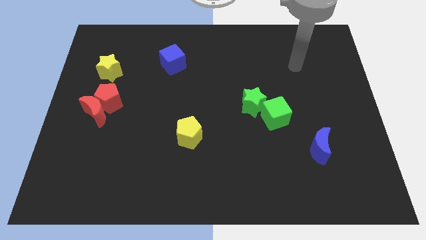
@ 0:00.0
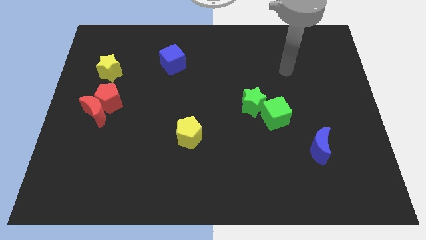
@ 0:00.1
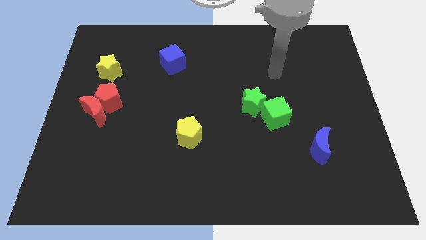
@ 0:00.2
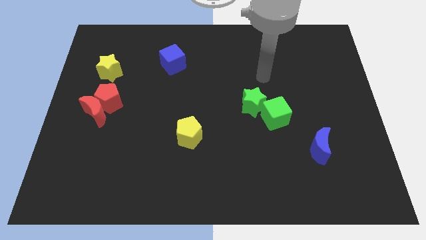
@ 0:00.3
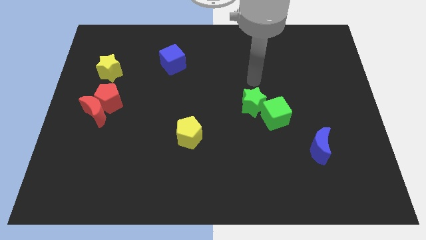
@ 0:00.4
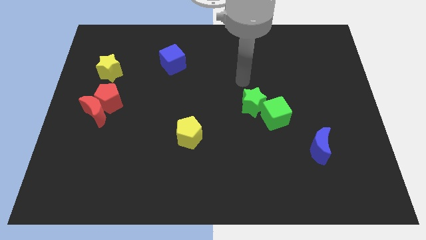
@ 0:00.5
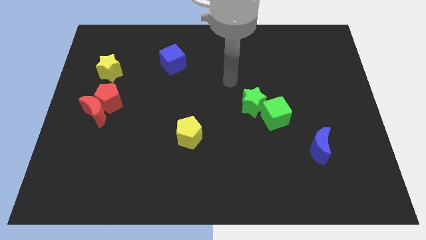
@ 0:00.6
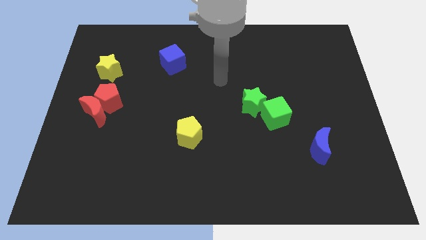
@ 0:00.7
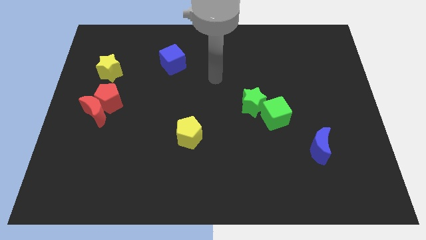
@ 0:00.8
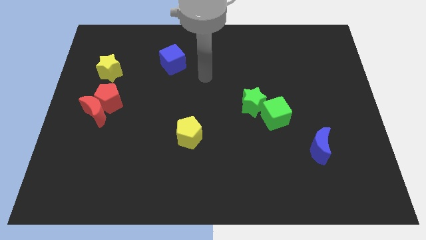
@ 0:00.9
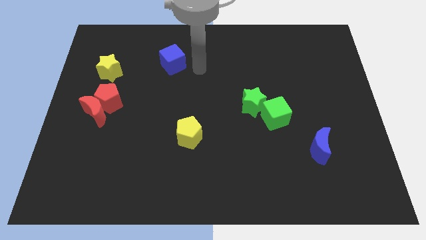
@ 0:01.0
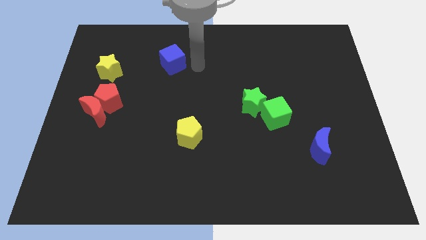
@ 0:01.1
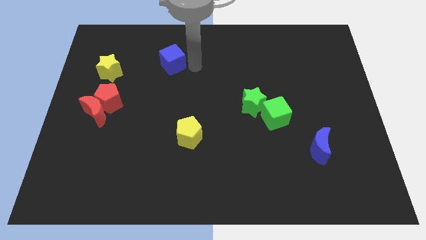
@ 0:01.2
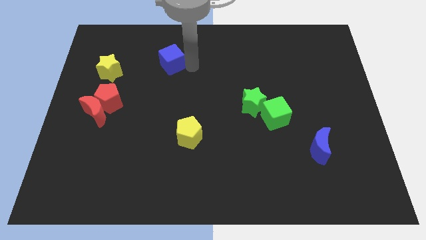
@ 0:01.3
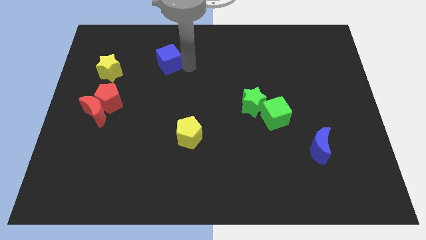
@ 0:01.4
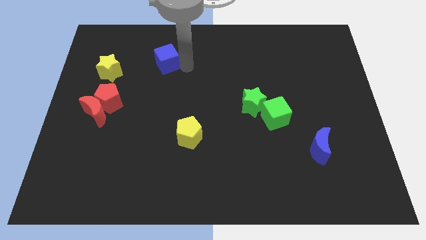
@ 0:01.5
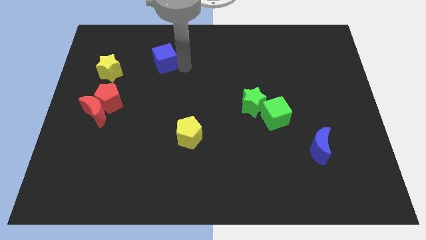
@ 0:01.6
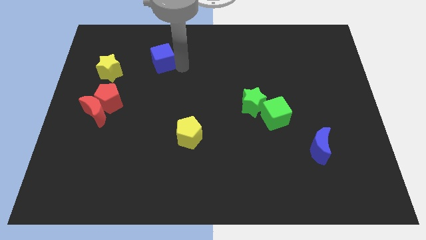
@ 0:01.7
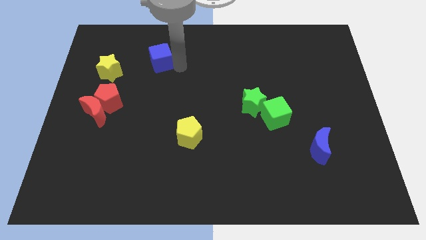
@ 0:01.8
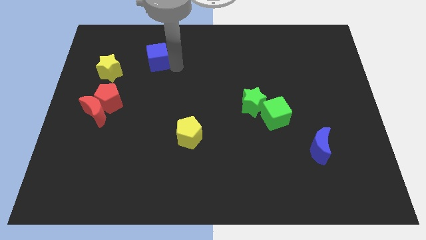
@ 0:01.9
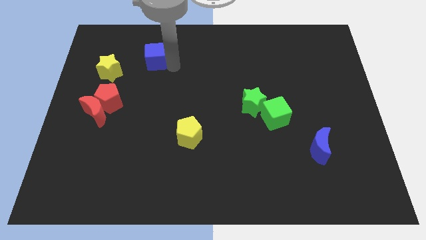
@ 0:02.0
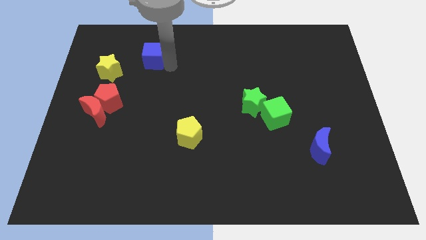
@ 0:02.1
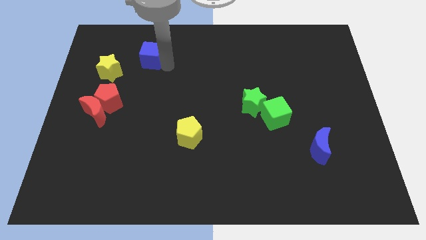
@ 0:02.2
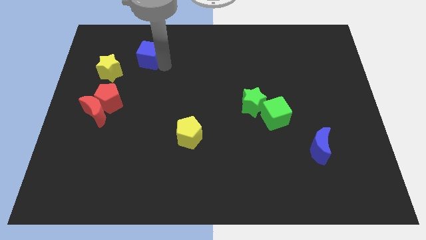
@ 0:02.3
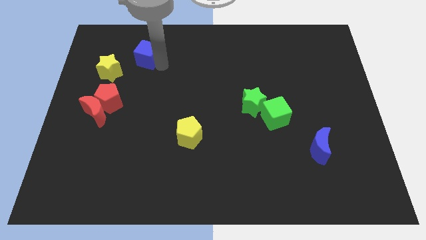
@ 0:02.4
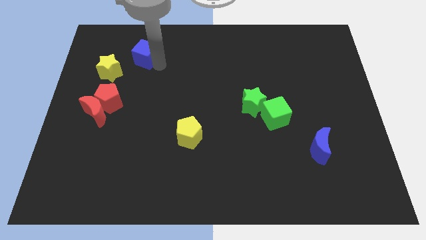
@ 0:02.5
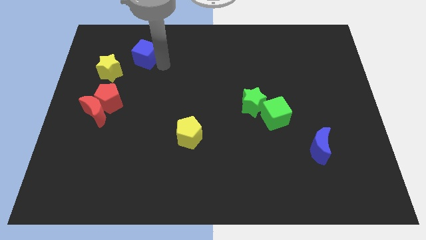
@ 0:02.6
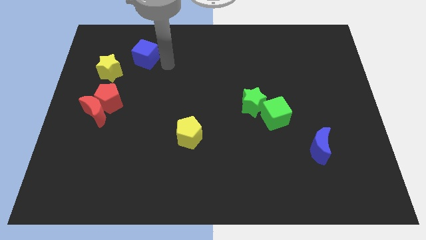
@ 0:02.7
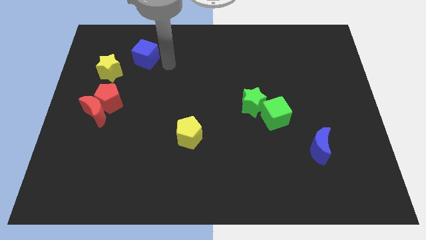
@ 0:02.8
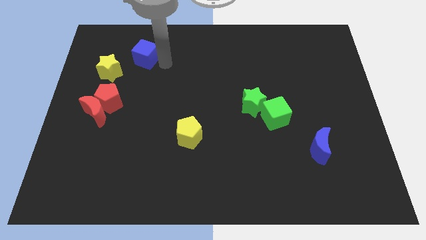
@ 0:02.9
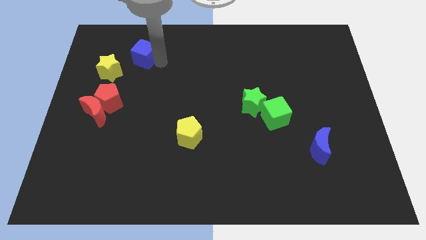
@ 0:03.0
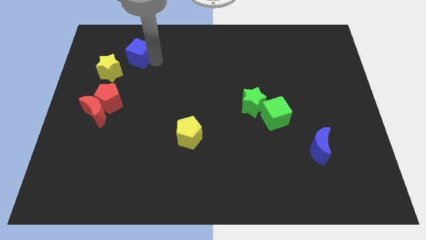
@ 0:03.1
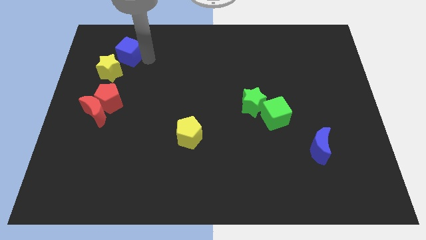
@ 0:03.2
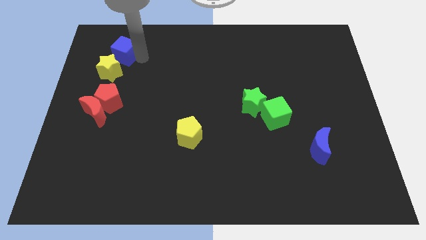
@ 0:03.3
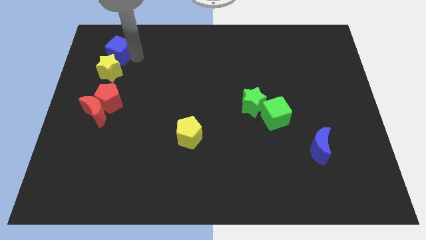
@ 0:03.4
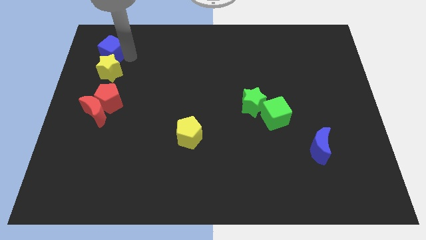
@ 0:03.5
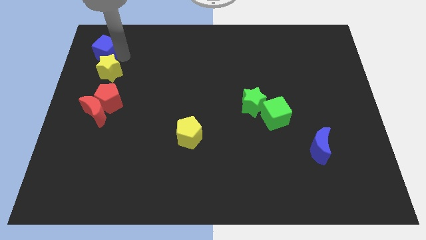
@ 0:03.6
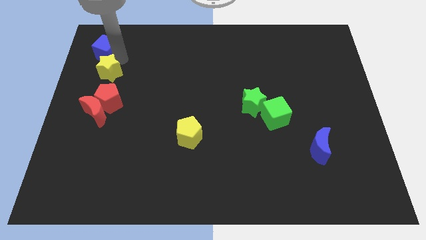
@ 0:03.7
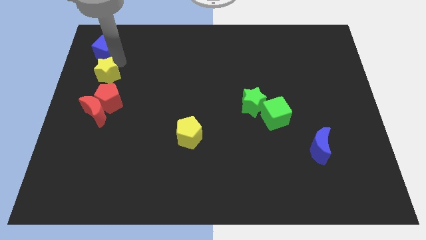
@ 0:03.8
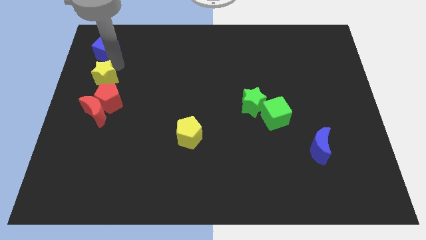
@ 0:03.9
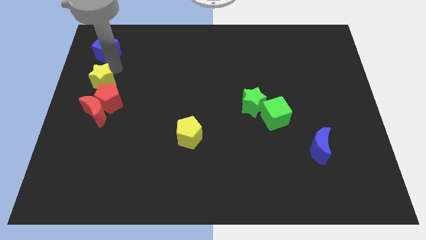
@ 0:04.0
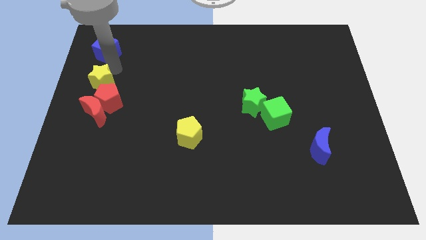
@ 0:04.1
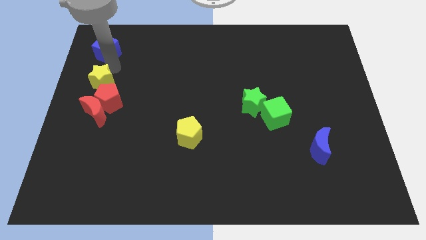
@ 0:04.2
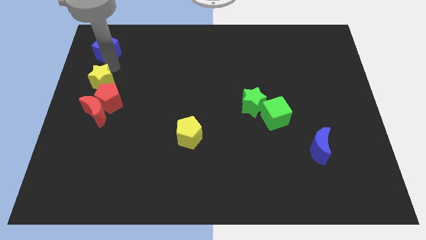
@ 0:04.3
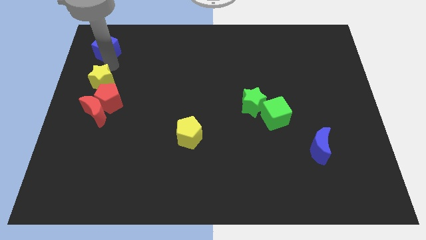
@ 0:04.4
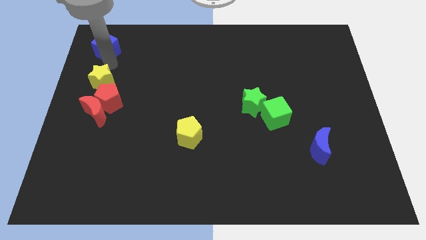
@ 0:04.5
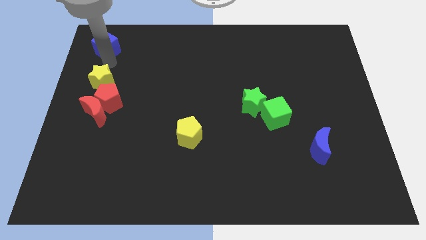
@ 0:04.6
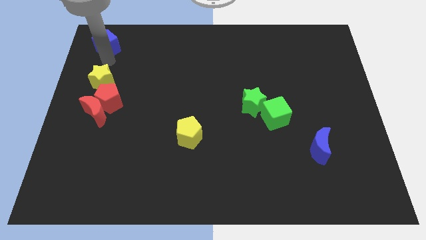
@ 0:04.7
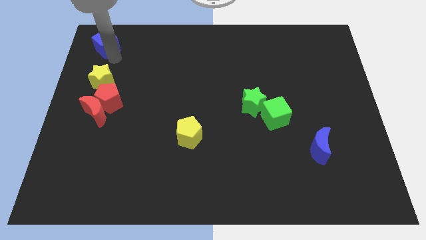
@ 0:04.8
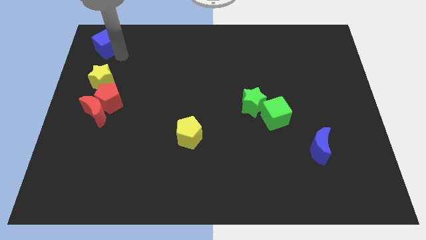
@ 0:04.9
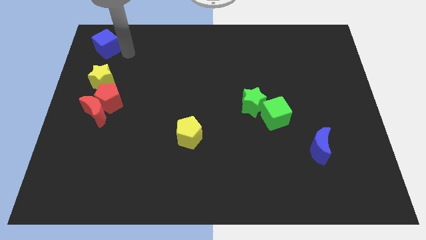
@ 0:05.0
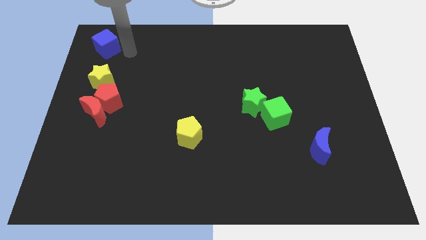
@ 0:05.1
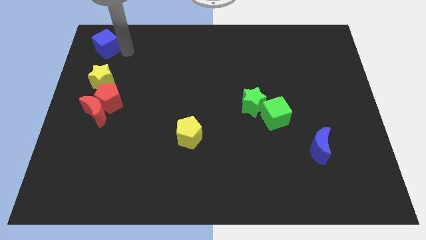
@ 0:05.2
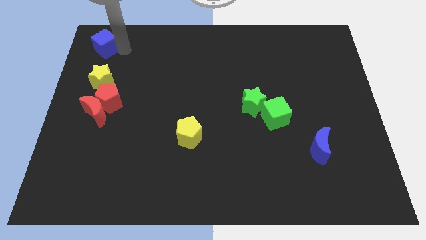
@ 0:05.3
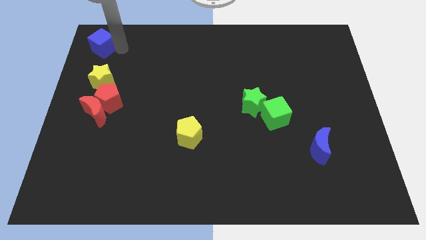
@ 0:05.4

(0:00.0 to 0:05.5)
slide the blue cube to the upper left corner
